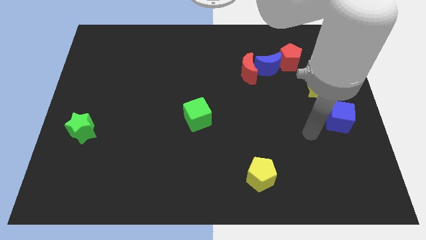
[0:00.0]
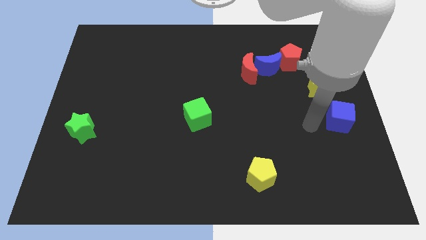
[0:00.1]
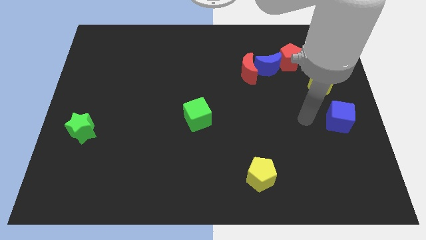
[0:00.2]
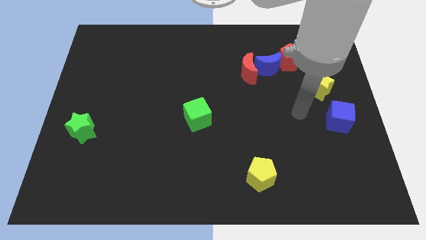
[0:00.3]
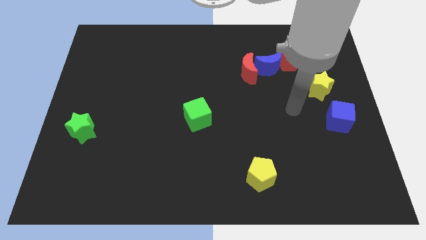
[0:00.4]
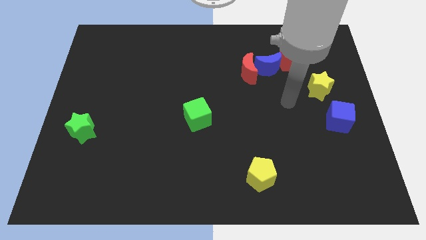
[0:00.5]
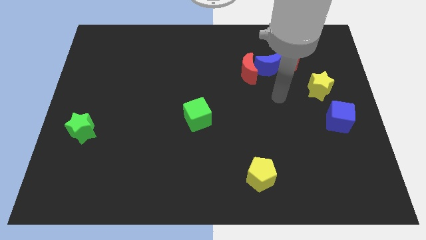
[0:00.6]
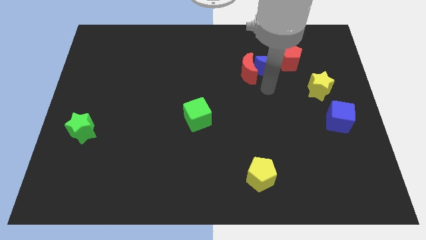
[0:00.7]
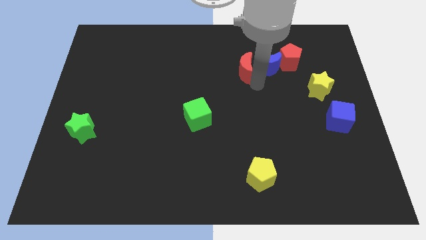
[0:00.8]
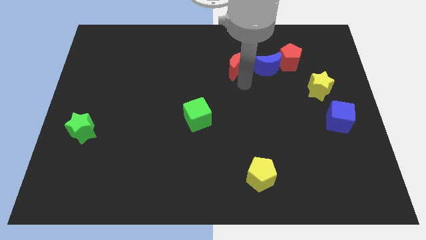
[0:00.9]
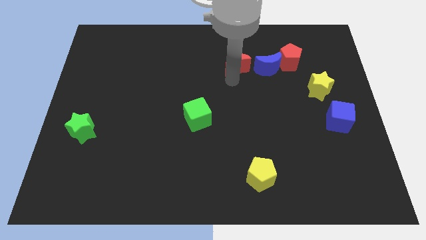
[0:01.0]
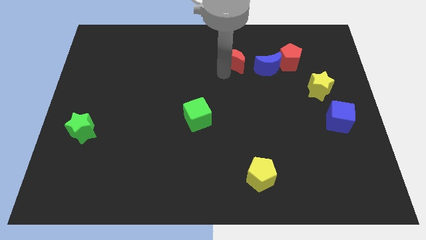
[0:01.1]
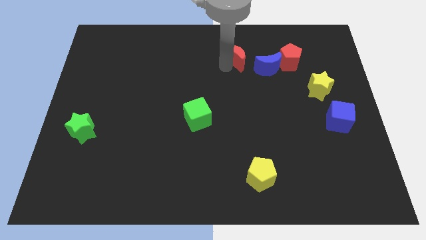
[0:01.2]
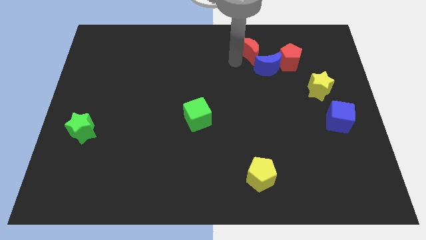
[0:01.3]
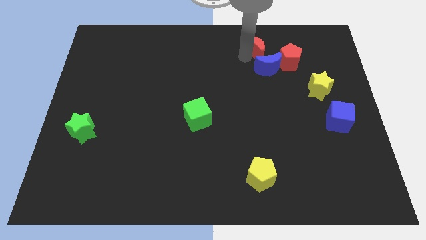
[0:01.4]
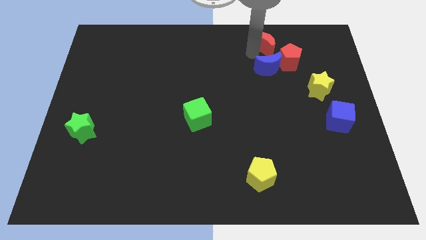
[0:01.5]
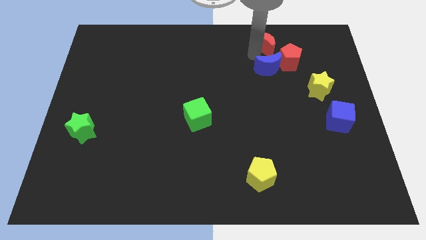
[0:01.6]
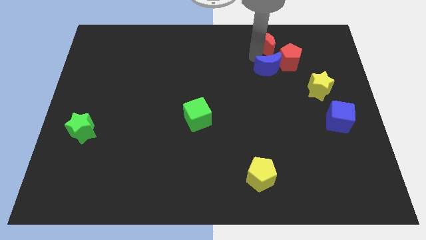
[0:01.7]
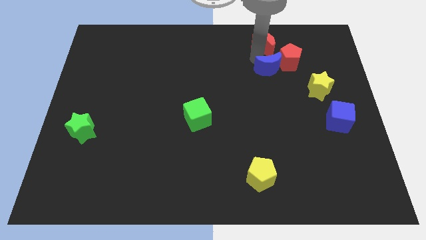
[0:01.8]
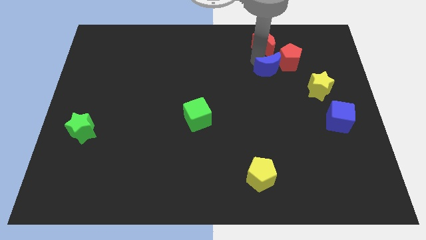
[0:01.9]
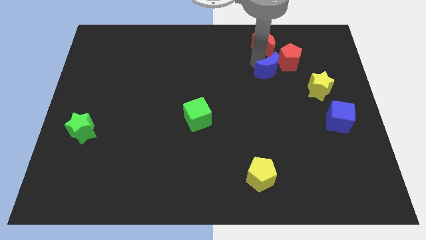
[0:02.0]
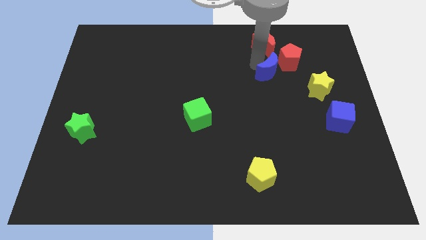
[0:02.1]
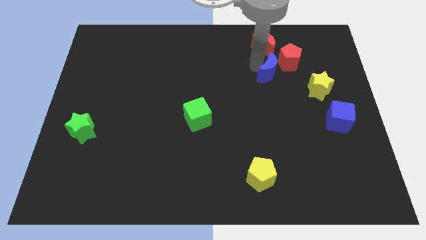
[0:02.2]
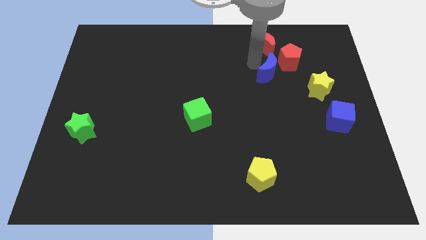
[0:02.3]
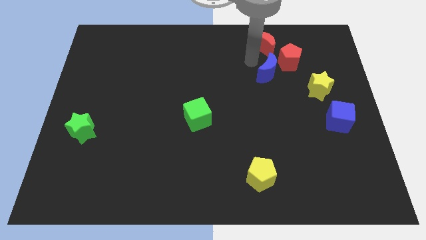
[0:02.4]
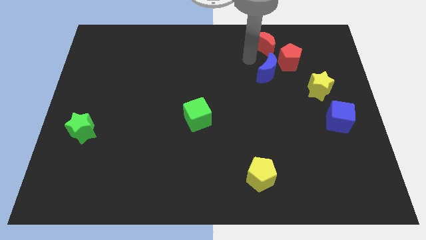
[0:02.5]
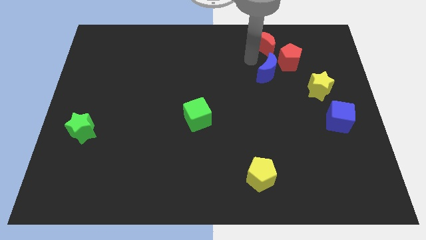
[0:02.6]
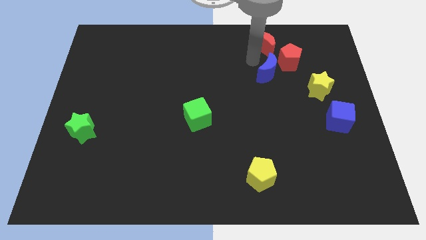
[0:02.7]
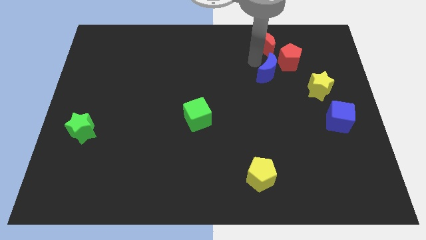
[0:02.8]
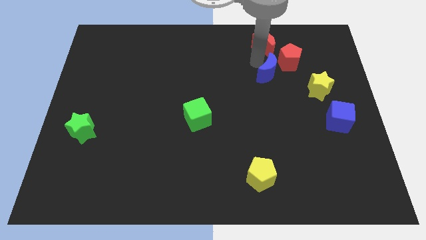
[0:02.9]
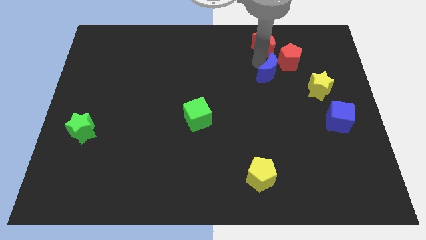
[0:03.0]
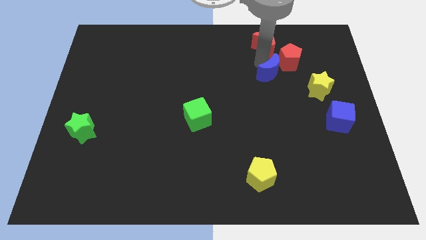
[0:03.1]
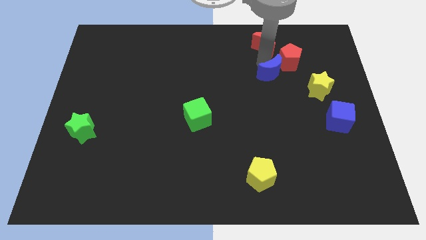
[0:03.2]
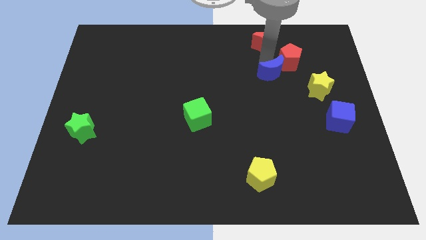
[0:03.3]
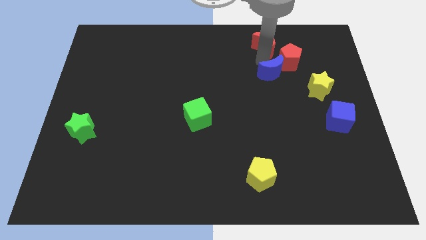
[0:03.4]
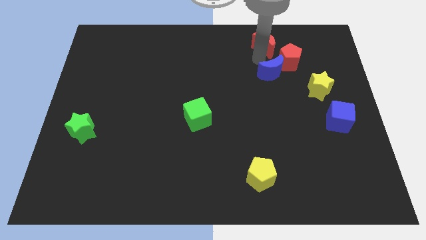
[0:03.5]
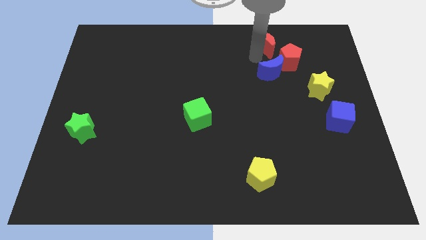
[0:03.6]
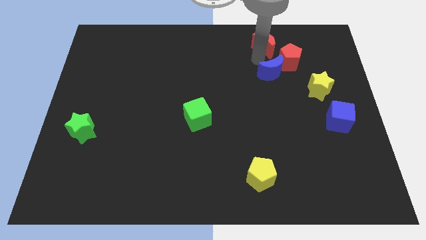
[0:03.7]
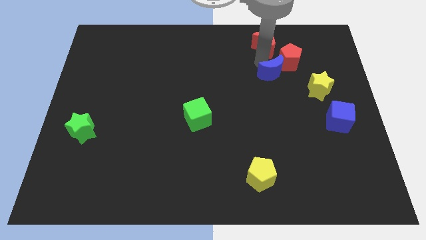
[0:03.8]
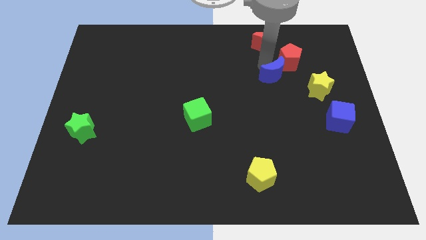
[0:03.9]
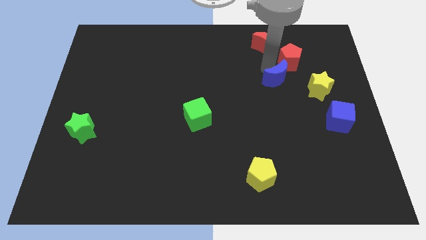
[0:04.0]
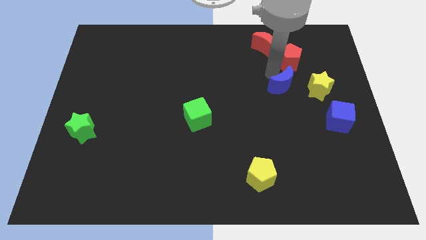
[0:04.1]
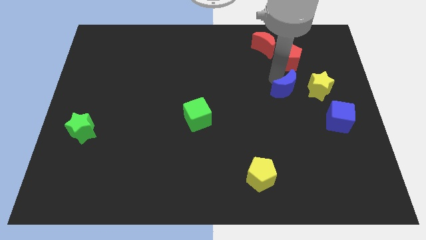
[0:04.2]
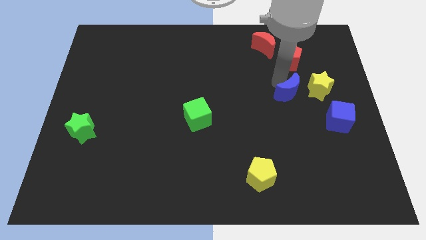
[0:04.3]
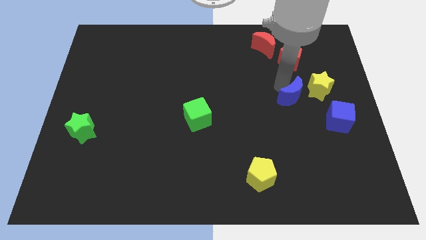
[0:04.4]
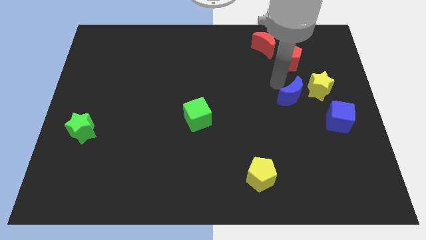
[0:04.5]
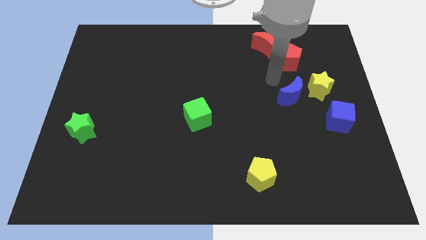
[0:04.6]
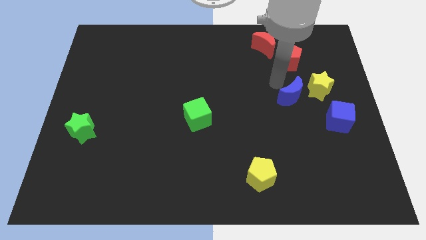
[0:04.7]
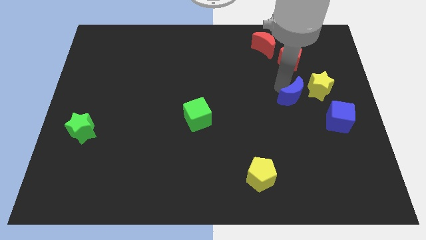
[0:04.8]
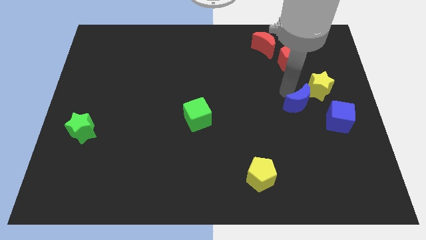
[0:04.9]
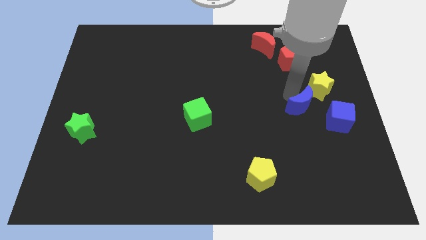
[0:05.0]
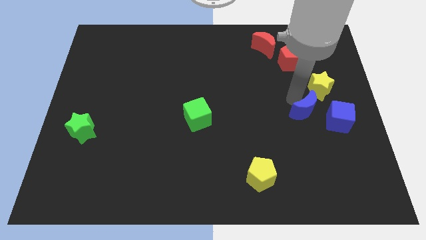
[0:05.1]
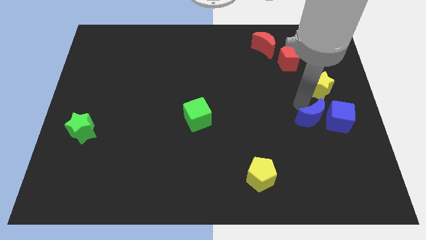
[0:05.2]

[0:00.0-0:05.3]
move the blue moon diagonally down and to the left of the blue cube

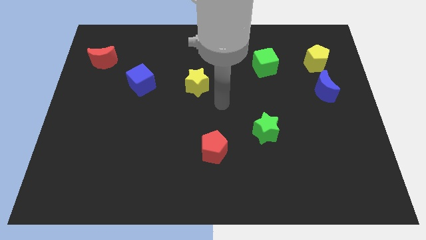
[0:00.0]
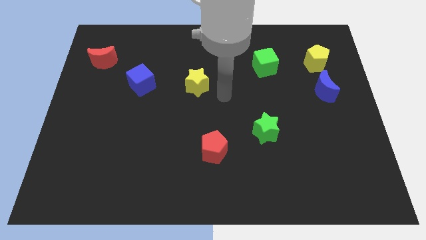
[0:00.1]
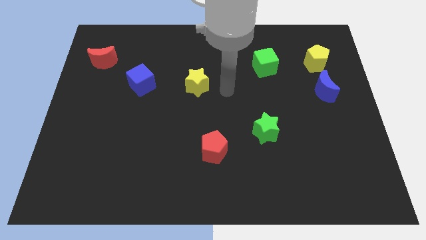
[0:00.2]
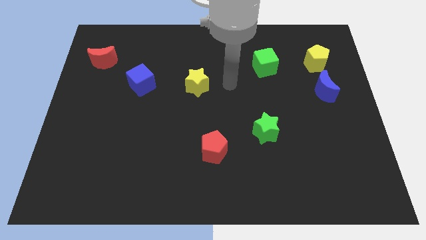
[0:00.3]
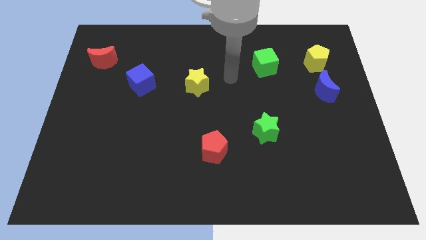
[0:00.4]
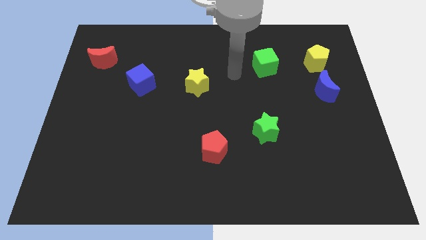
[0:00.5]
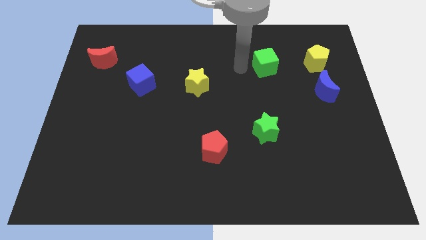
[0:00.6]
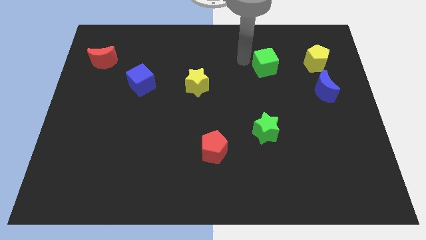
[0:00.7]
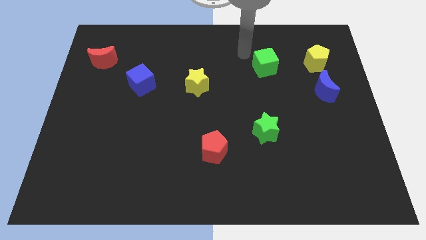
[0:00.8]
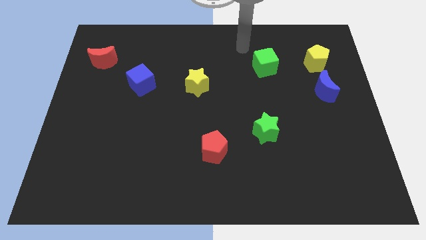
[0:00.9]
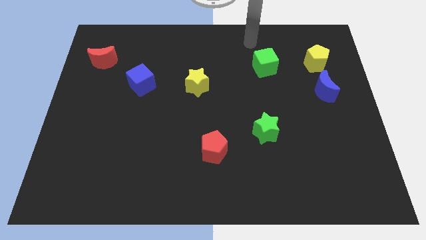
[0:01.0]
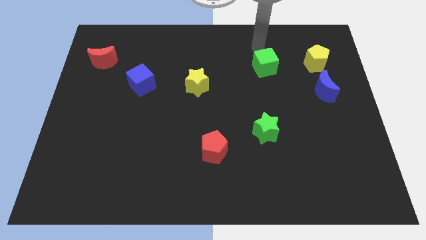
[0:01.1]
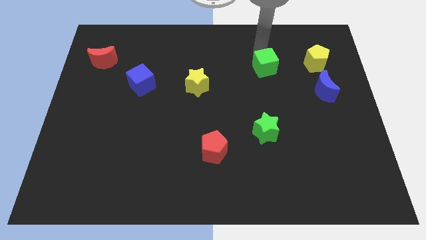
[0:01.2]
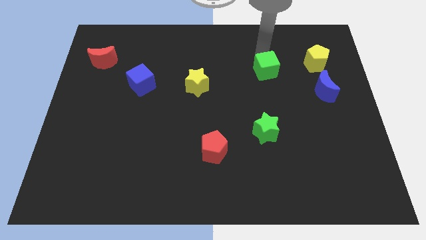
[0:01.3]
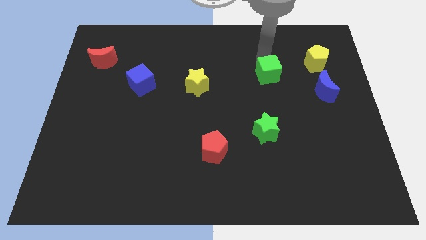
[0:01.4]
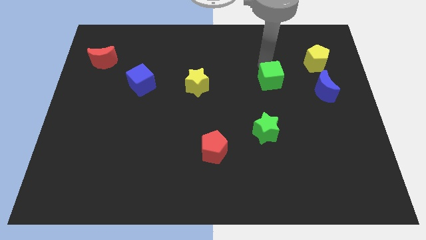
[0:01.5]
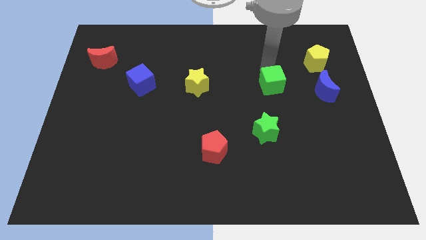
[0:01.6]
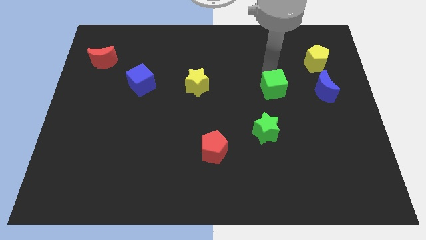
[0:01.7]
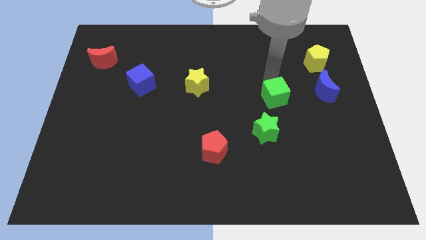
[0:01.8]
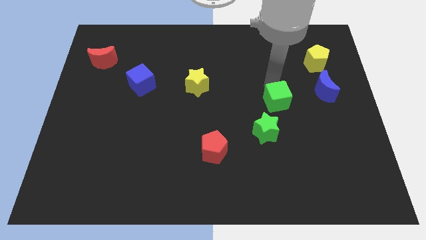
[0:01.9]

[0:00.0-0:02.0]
move the green cube diagonally up and to the right of the green star
